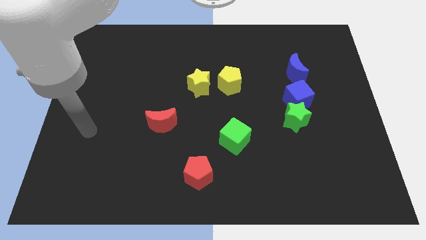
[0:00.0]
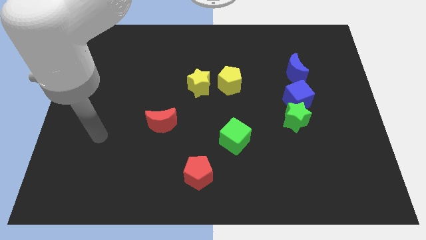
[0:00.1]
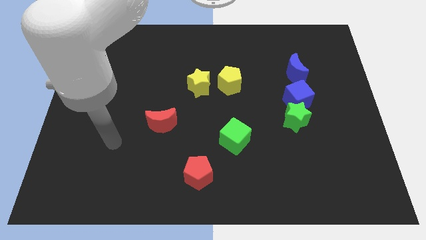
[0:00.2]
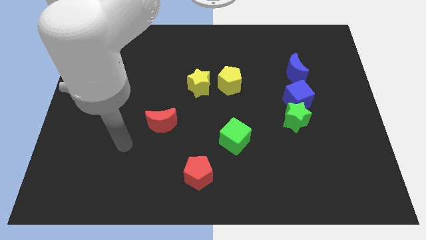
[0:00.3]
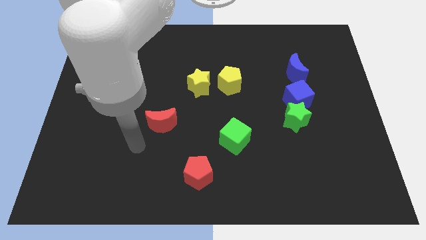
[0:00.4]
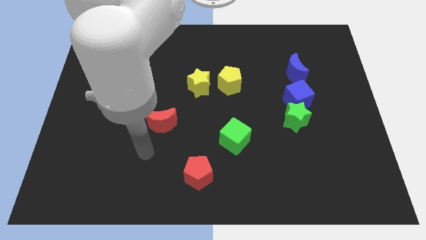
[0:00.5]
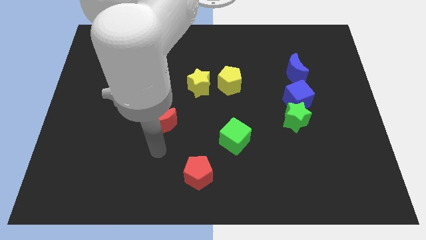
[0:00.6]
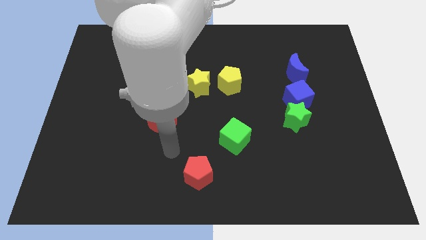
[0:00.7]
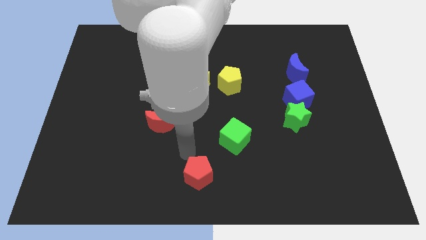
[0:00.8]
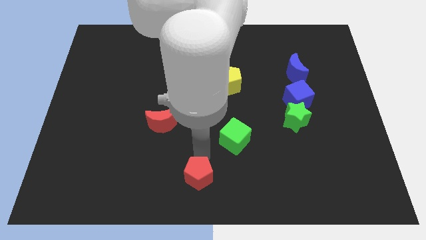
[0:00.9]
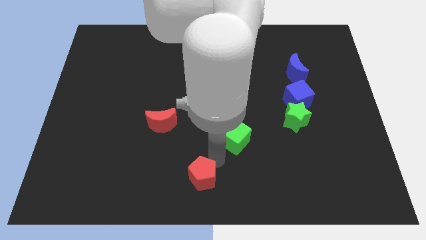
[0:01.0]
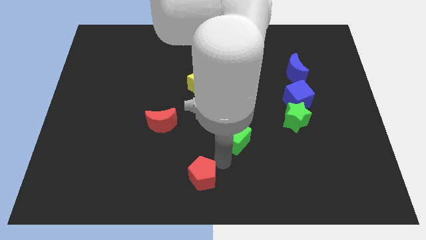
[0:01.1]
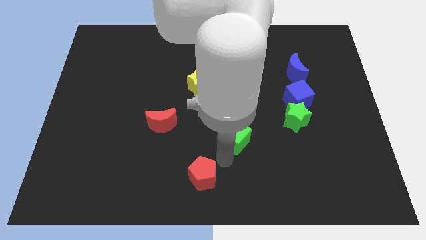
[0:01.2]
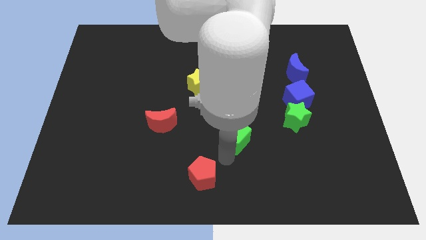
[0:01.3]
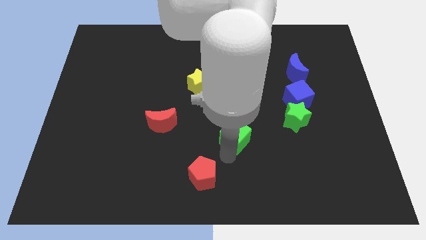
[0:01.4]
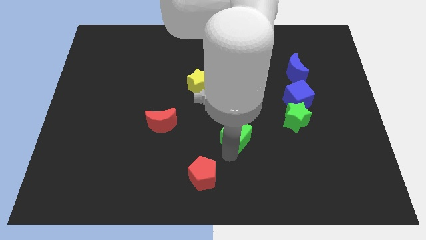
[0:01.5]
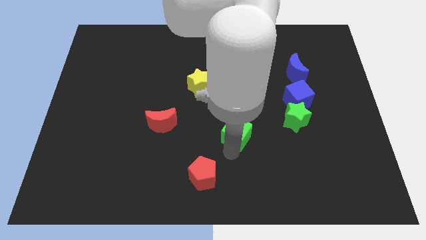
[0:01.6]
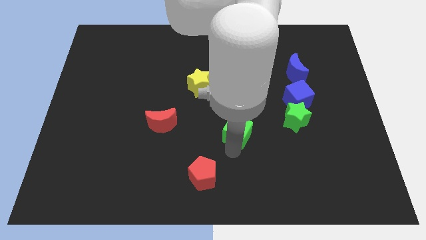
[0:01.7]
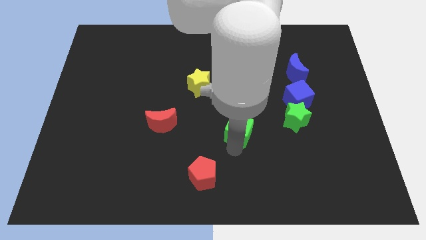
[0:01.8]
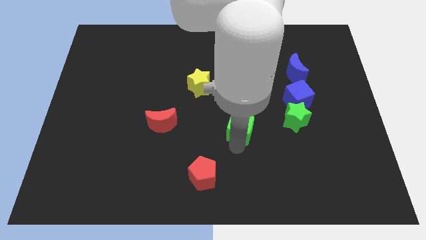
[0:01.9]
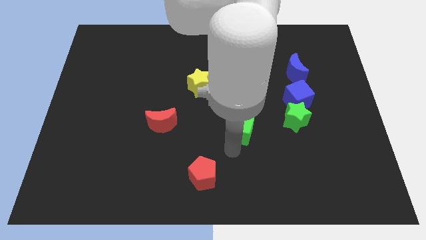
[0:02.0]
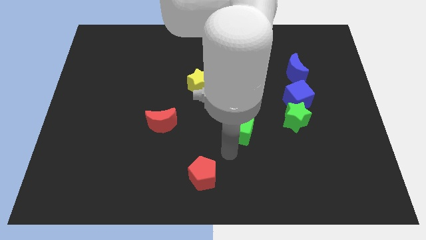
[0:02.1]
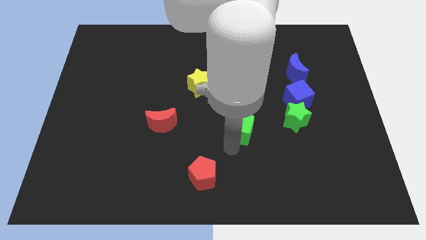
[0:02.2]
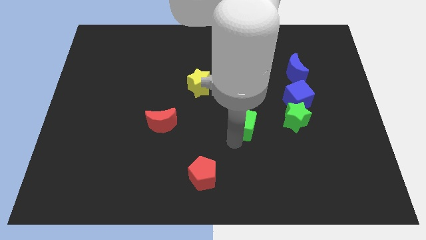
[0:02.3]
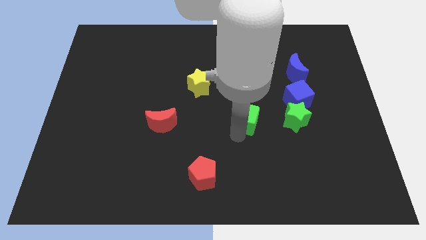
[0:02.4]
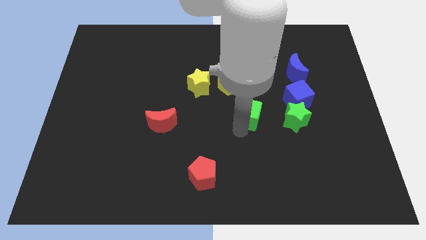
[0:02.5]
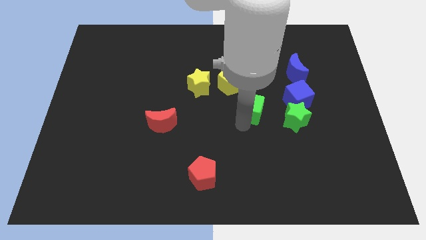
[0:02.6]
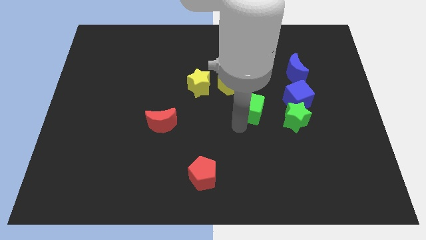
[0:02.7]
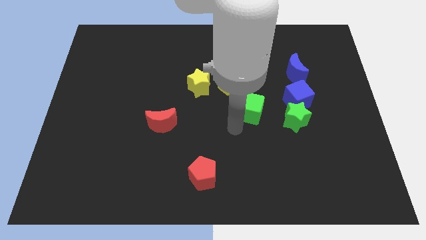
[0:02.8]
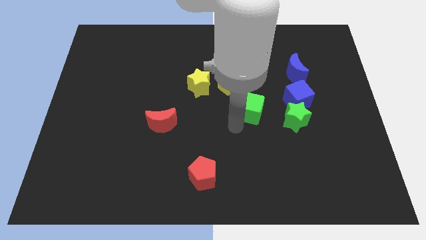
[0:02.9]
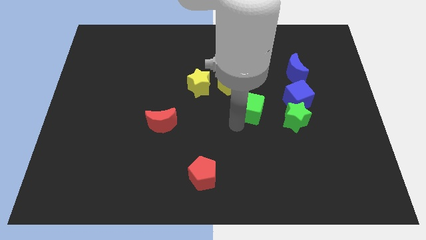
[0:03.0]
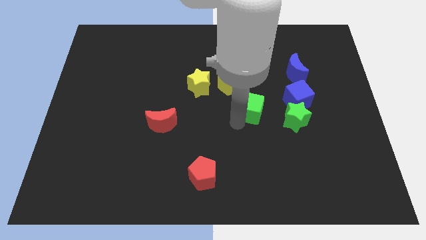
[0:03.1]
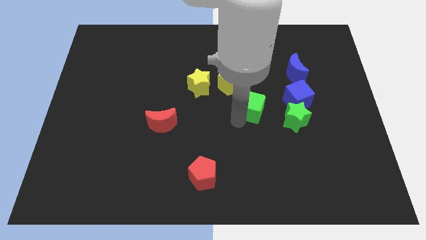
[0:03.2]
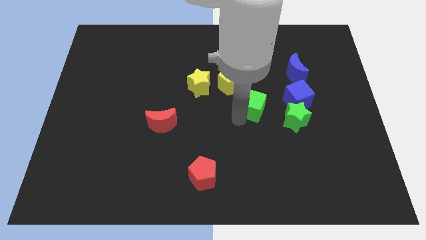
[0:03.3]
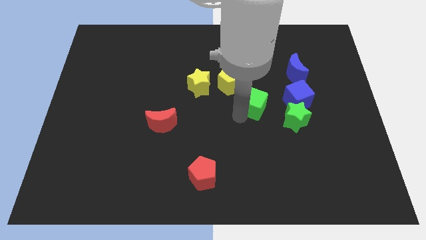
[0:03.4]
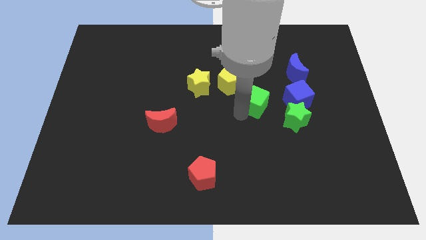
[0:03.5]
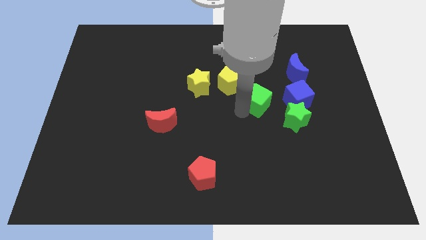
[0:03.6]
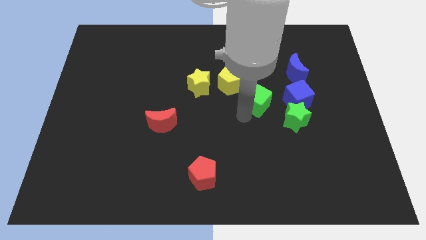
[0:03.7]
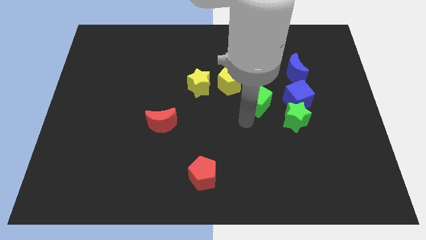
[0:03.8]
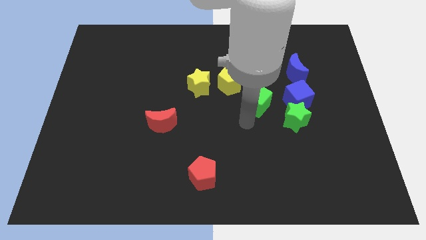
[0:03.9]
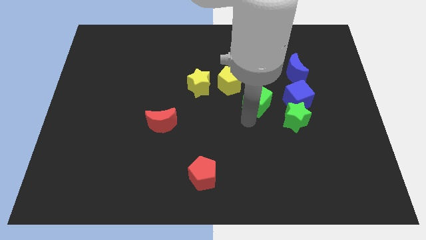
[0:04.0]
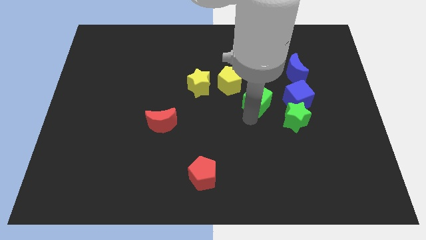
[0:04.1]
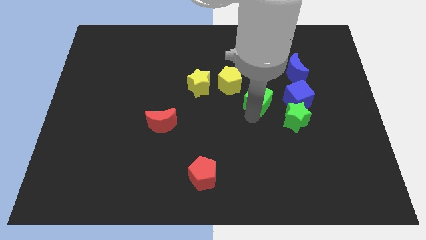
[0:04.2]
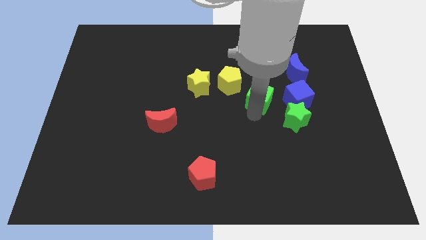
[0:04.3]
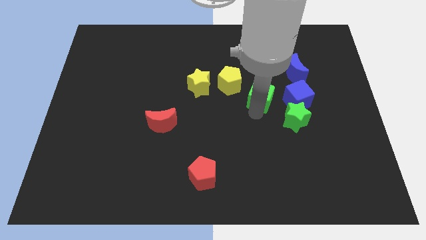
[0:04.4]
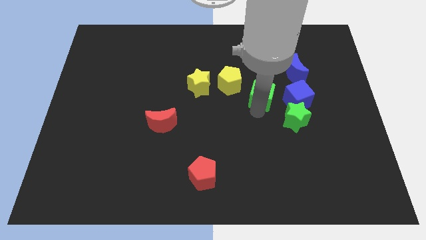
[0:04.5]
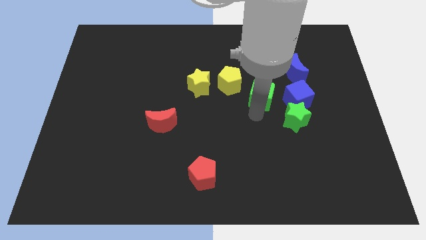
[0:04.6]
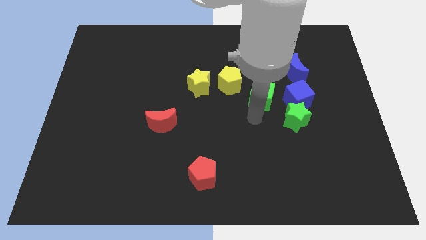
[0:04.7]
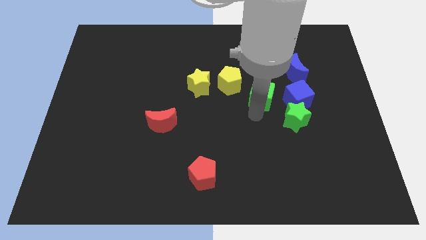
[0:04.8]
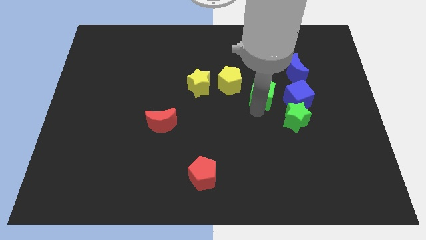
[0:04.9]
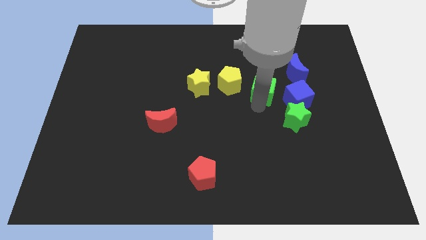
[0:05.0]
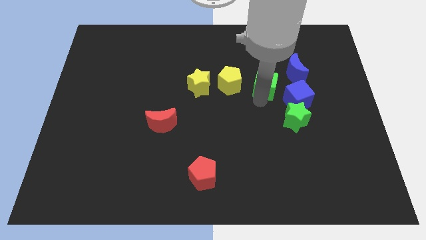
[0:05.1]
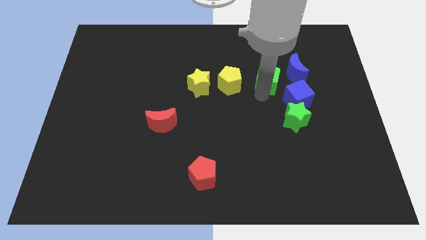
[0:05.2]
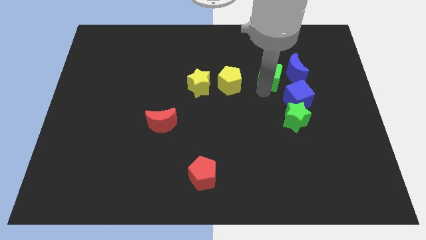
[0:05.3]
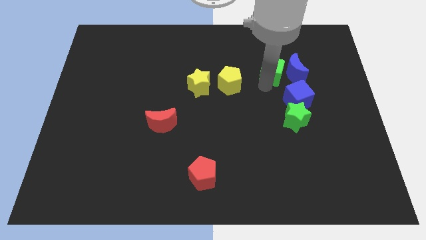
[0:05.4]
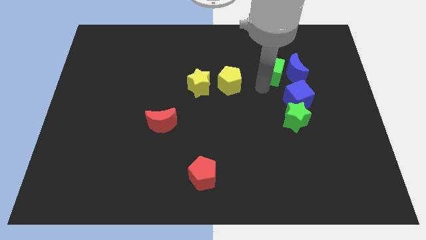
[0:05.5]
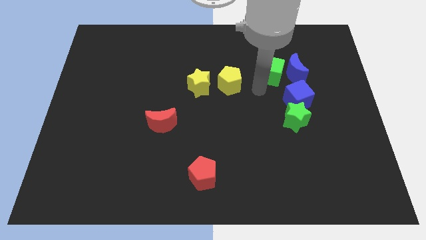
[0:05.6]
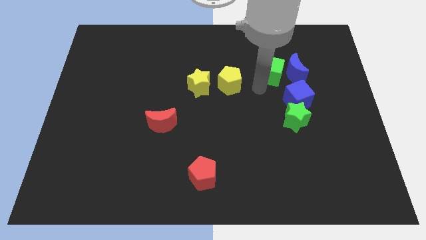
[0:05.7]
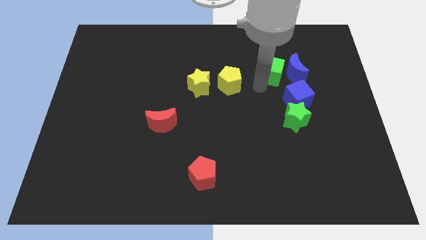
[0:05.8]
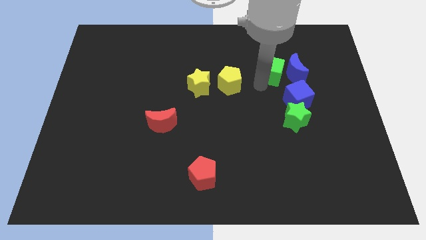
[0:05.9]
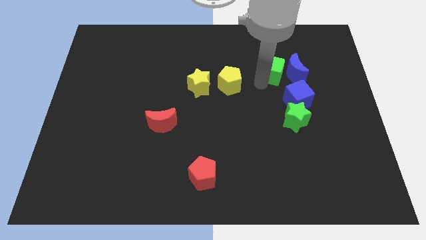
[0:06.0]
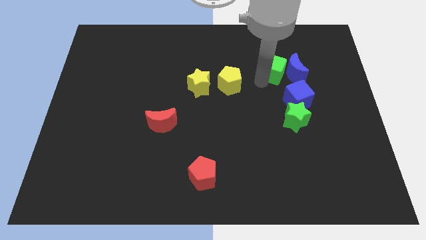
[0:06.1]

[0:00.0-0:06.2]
move the green cube diagonally up and to the right

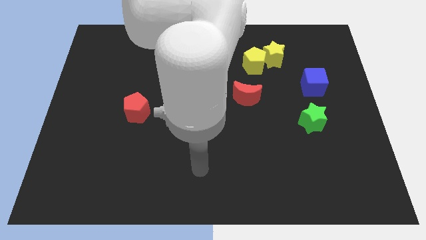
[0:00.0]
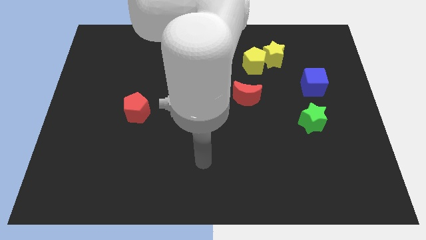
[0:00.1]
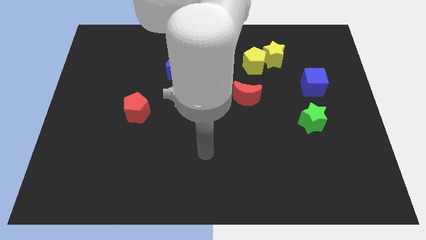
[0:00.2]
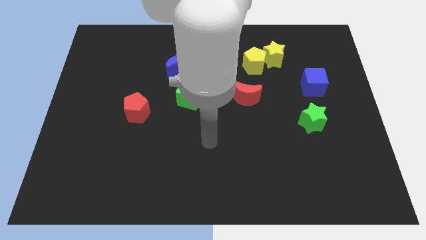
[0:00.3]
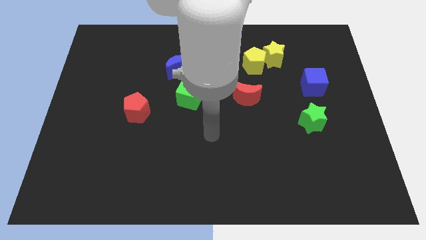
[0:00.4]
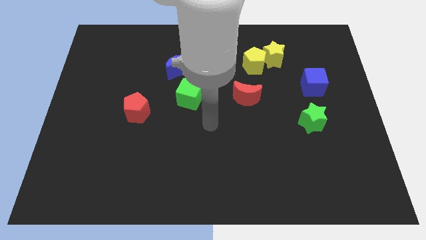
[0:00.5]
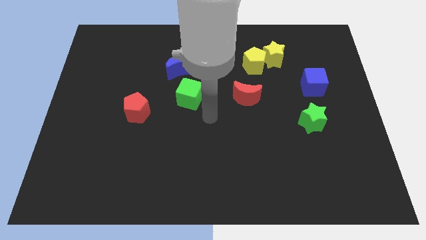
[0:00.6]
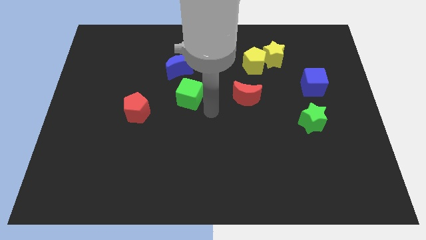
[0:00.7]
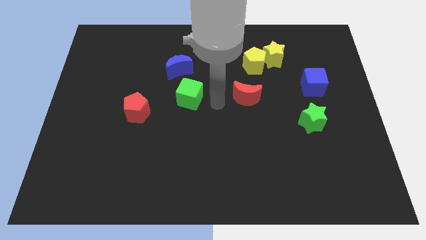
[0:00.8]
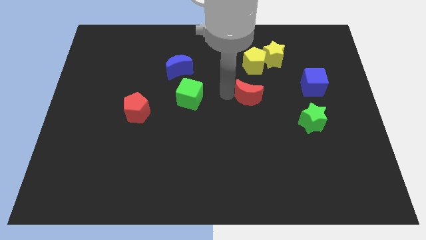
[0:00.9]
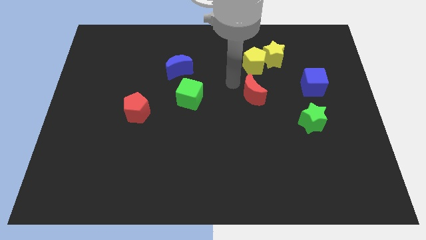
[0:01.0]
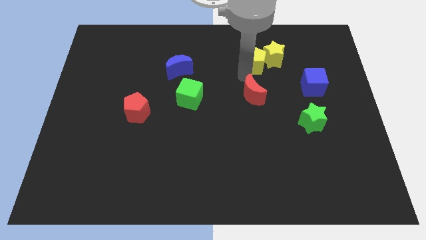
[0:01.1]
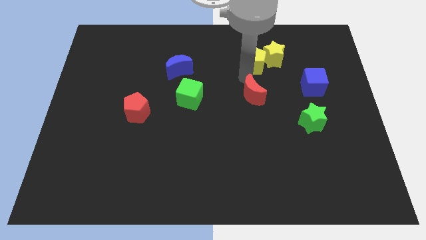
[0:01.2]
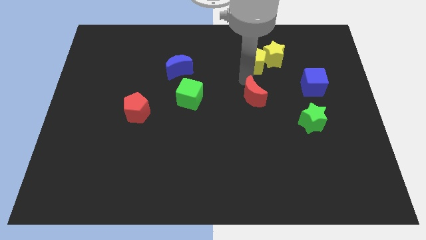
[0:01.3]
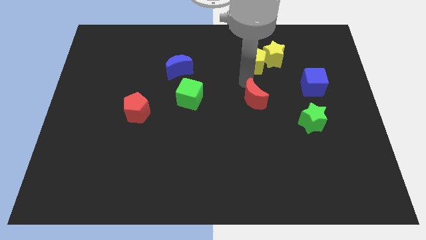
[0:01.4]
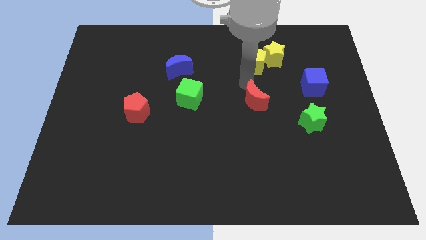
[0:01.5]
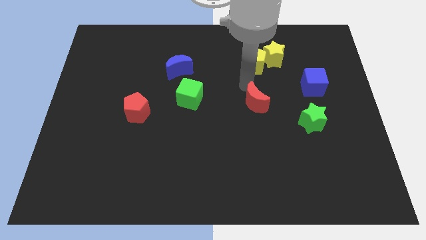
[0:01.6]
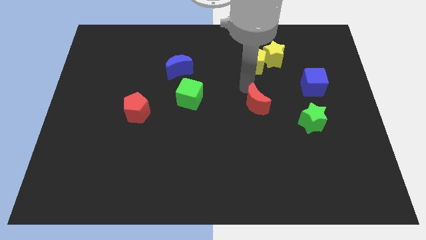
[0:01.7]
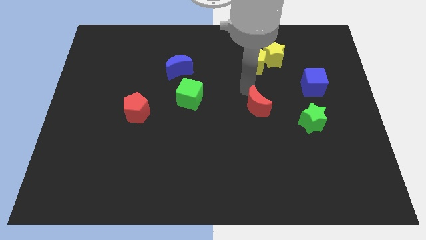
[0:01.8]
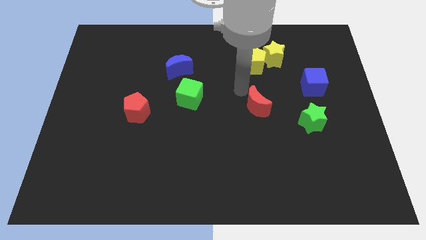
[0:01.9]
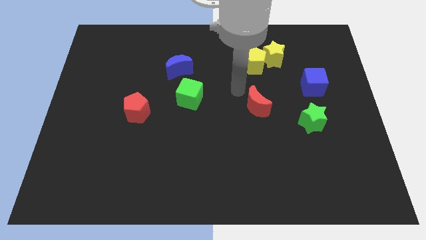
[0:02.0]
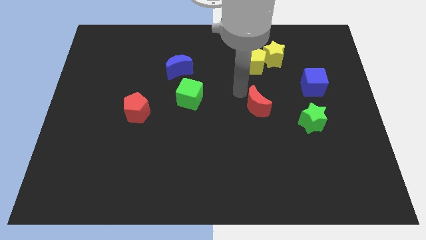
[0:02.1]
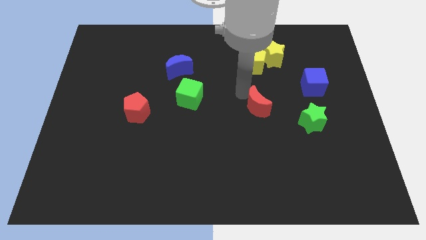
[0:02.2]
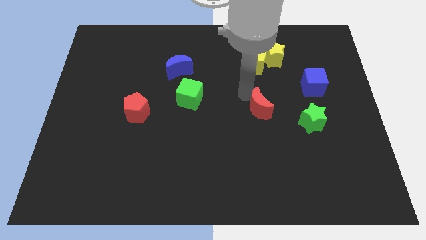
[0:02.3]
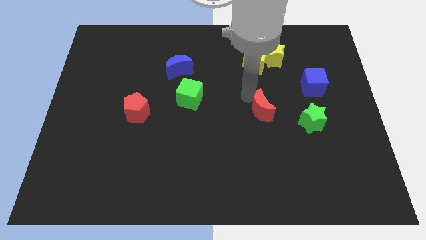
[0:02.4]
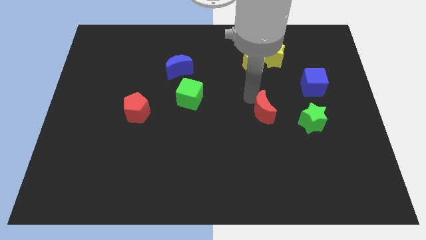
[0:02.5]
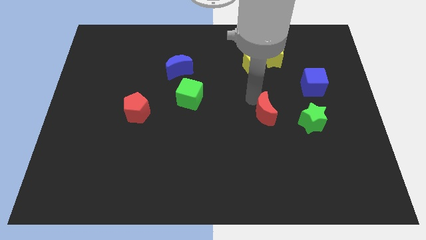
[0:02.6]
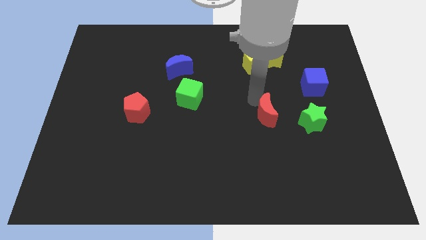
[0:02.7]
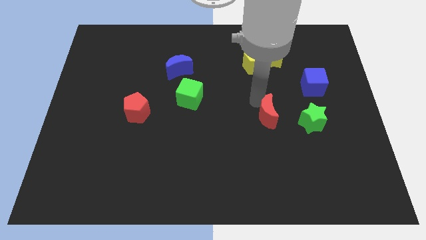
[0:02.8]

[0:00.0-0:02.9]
push the red moon a bit diagonally down and to the right
